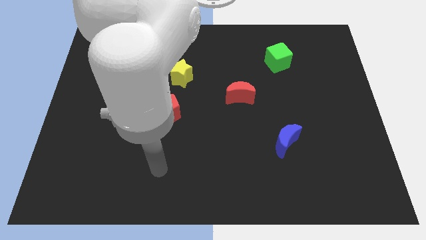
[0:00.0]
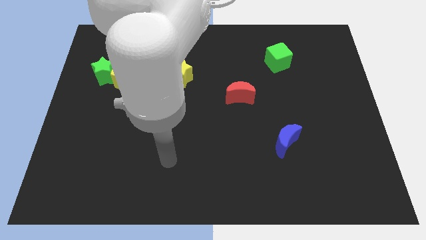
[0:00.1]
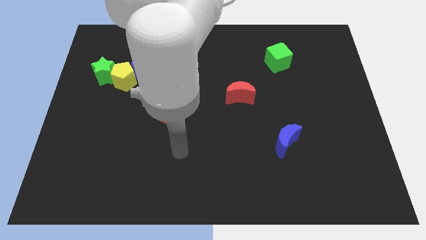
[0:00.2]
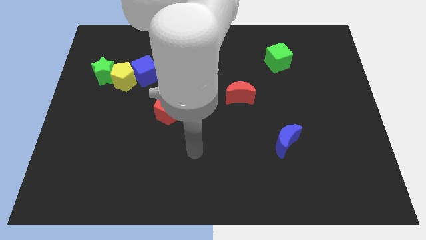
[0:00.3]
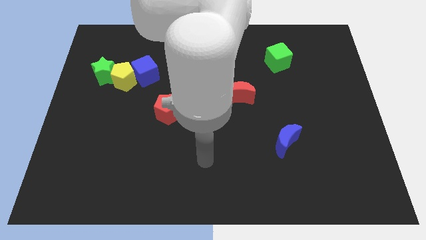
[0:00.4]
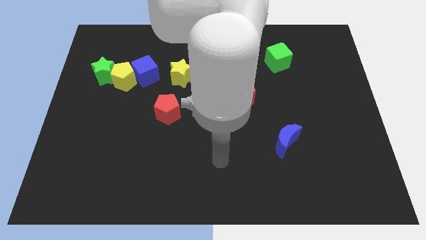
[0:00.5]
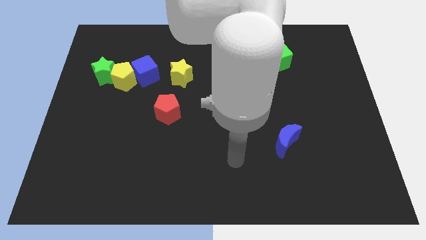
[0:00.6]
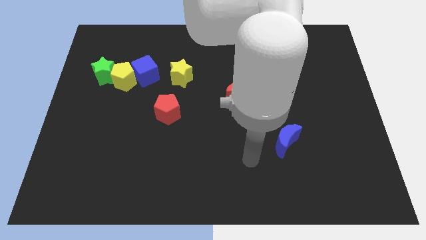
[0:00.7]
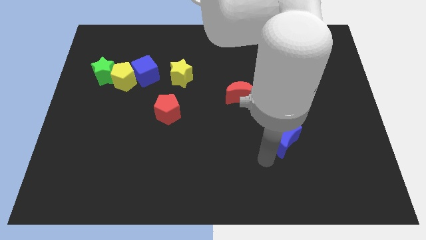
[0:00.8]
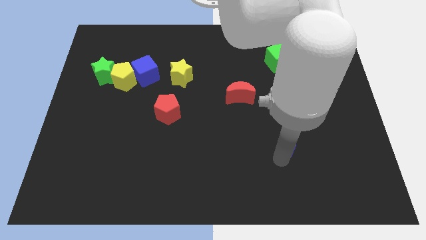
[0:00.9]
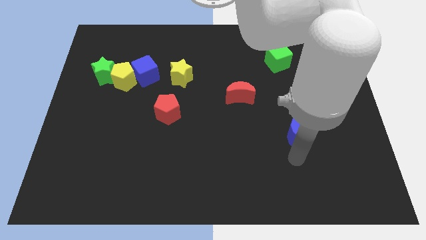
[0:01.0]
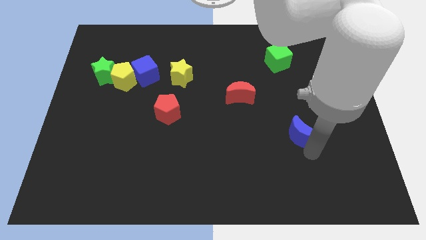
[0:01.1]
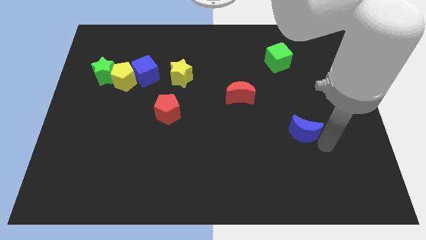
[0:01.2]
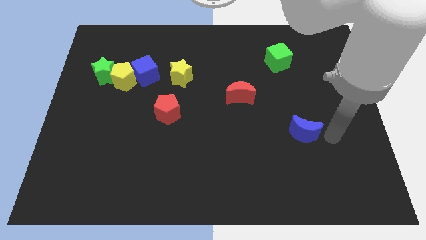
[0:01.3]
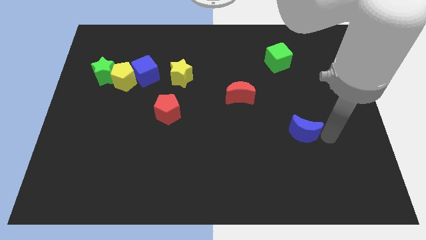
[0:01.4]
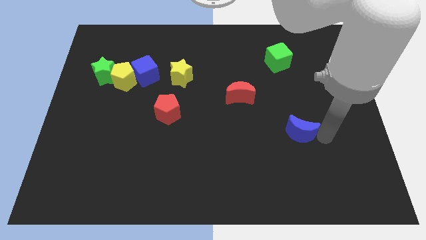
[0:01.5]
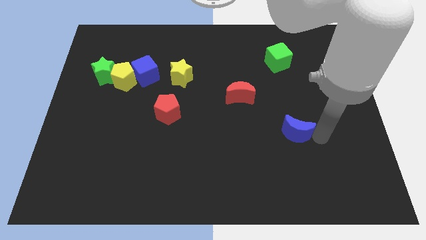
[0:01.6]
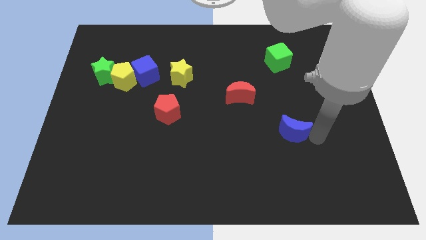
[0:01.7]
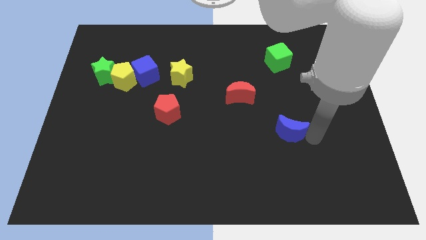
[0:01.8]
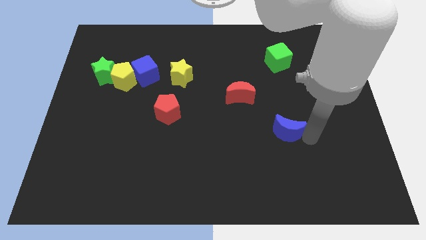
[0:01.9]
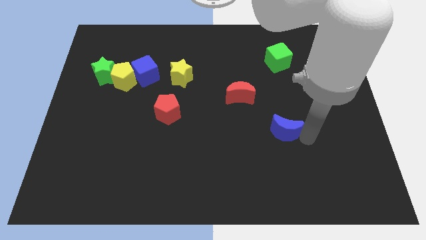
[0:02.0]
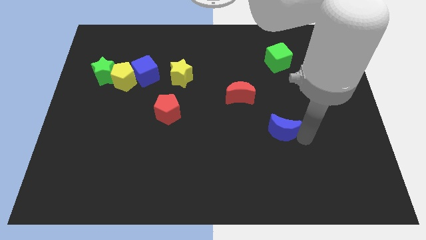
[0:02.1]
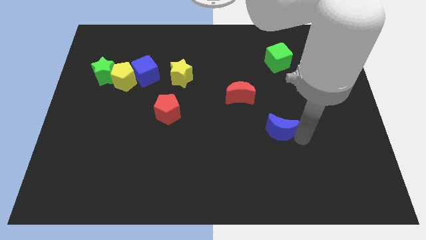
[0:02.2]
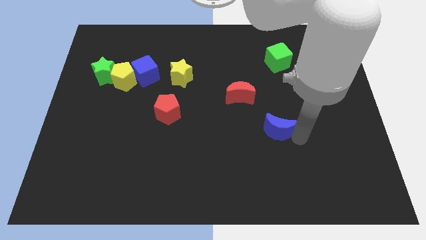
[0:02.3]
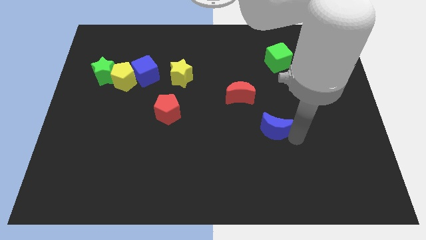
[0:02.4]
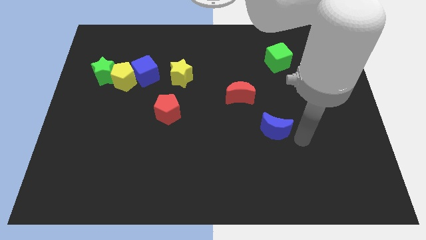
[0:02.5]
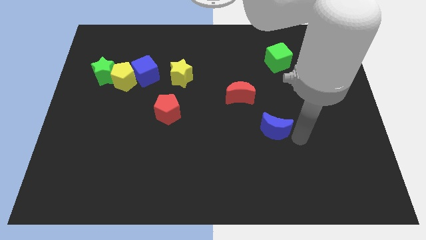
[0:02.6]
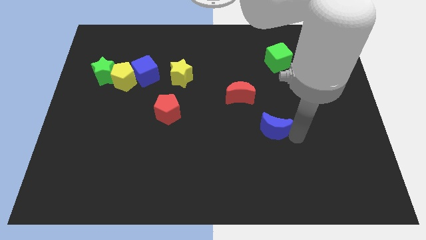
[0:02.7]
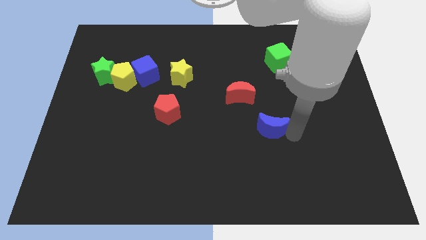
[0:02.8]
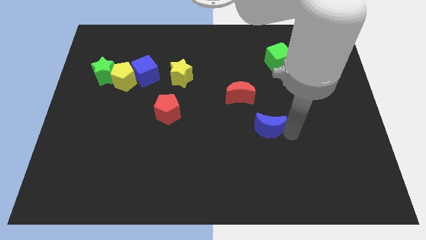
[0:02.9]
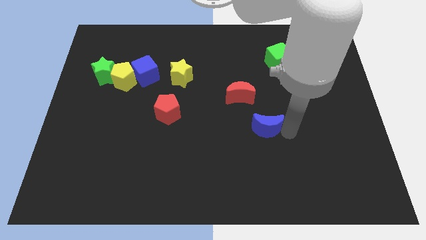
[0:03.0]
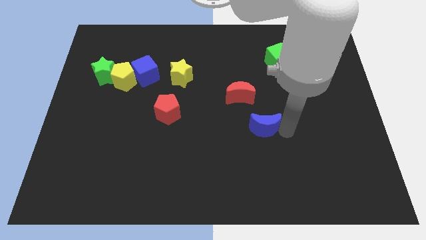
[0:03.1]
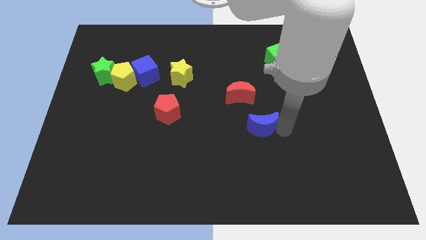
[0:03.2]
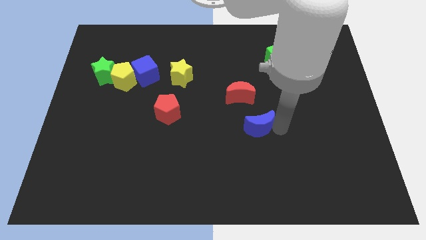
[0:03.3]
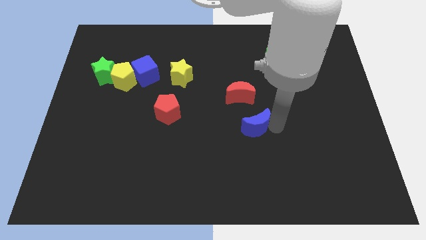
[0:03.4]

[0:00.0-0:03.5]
slide the blue moon upwards and to the left a little

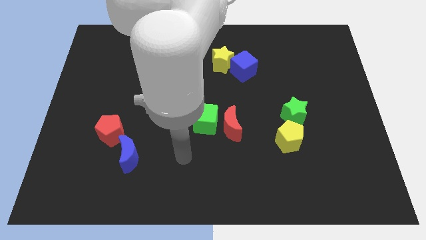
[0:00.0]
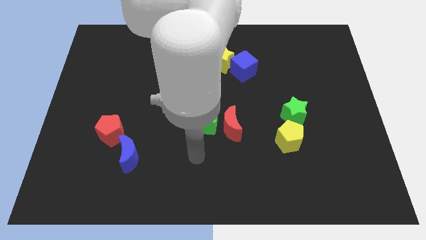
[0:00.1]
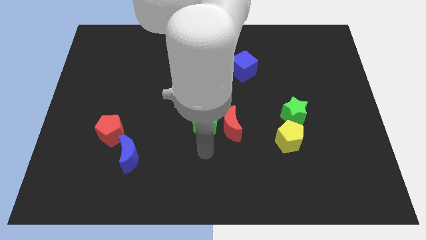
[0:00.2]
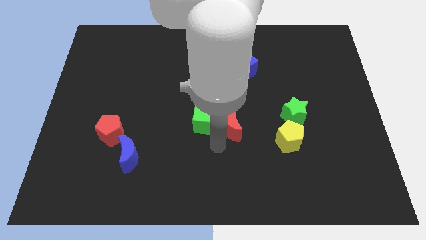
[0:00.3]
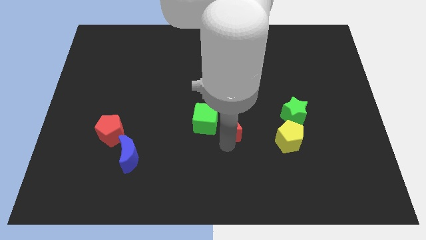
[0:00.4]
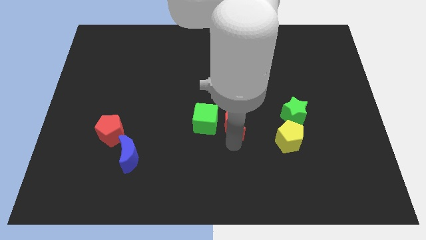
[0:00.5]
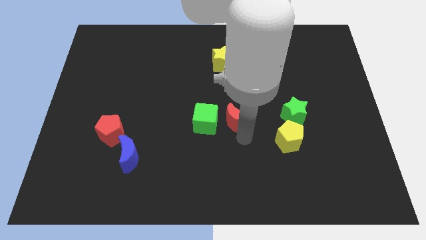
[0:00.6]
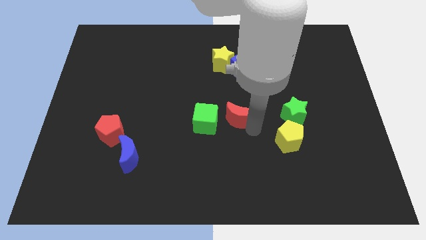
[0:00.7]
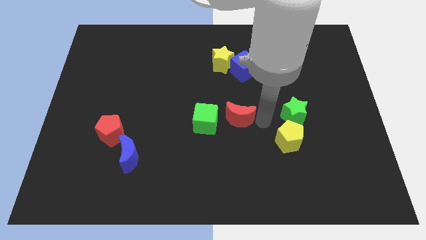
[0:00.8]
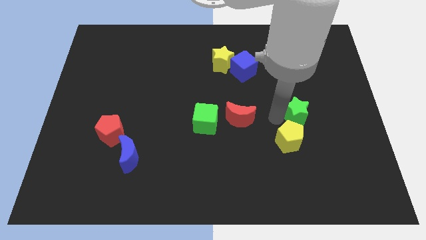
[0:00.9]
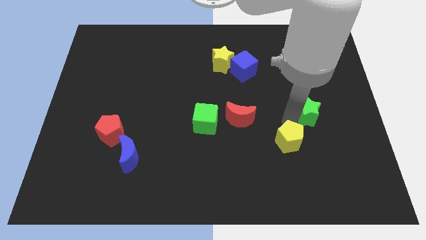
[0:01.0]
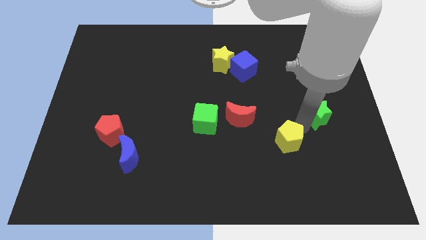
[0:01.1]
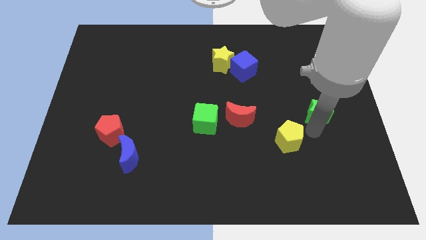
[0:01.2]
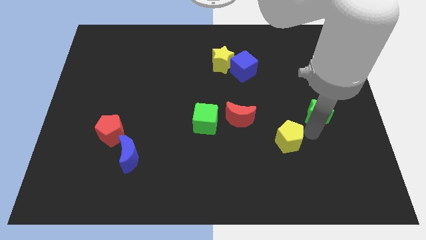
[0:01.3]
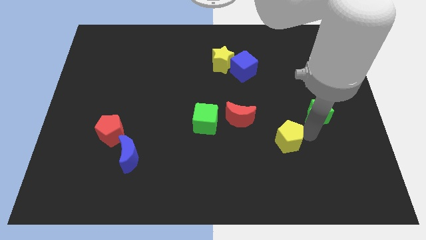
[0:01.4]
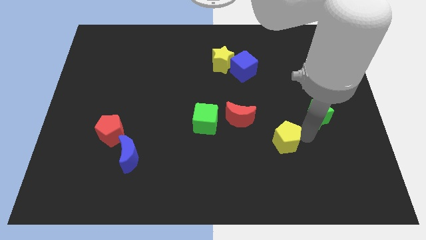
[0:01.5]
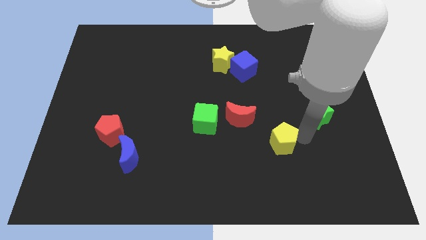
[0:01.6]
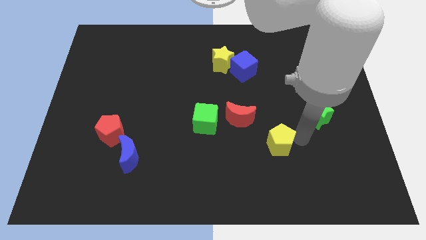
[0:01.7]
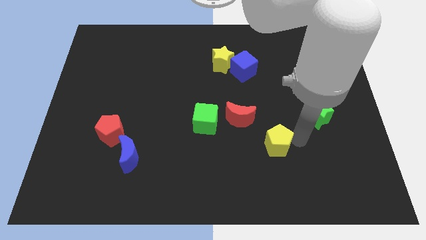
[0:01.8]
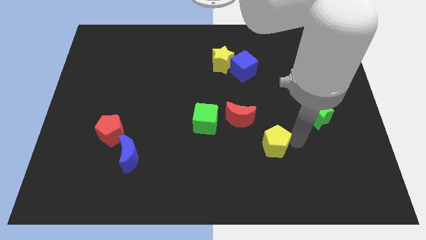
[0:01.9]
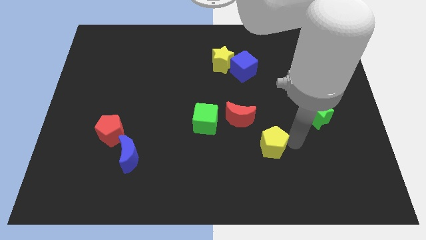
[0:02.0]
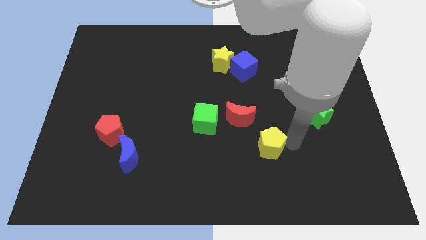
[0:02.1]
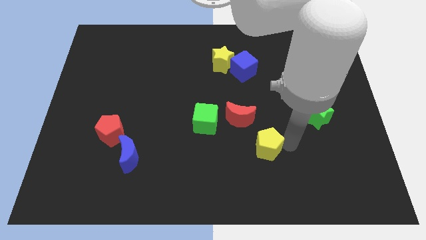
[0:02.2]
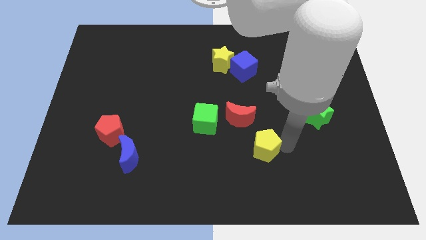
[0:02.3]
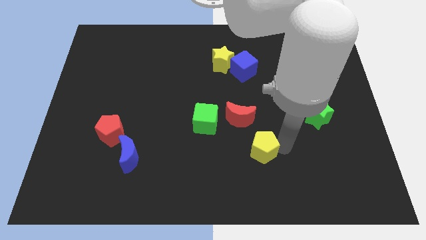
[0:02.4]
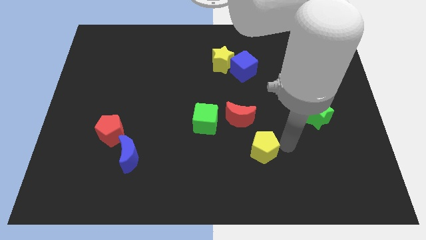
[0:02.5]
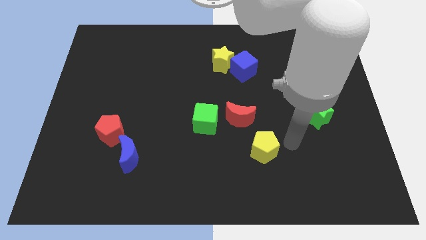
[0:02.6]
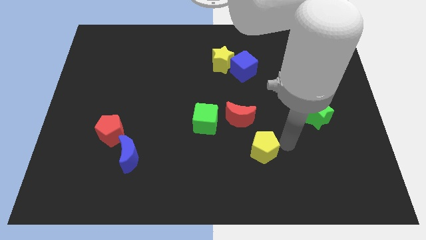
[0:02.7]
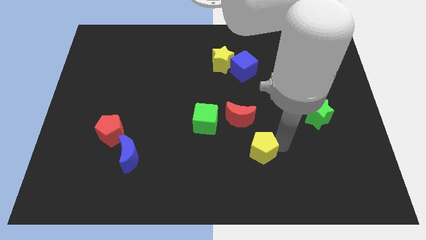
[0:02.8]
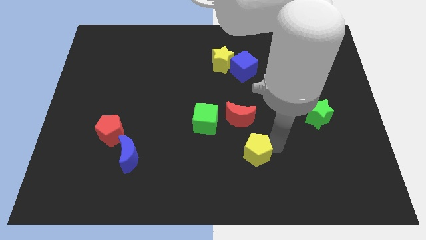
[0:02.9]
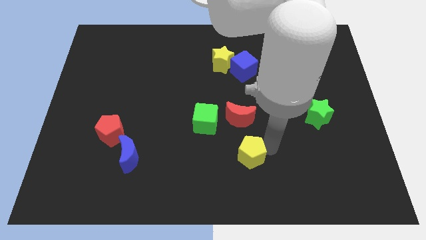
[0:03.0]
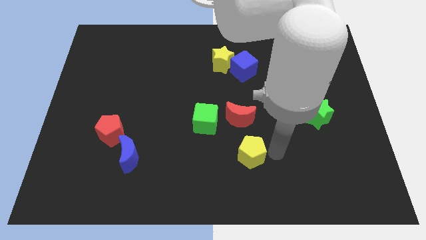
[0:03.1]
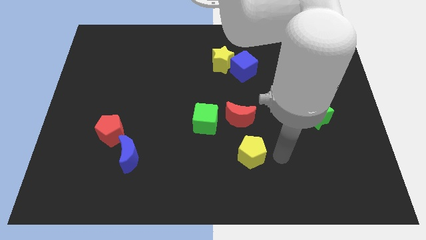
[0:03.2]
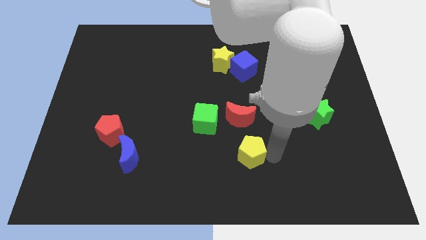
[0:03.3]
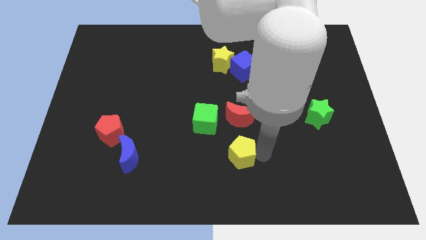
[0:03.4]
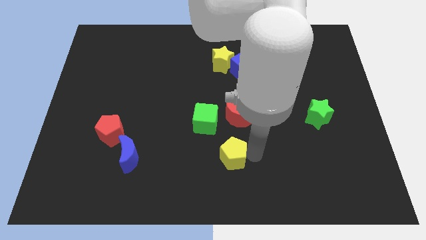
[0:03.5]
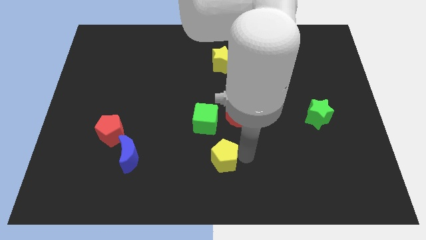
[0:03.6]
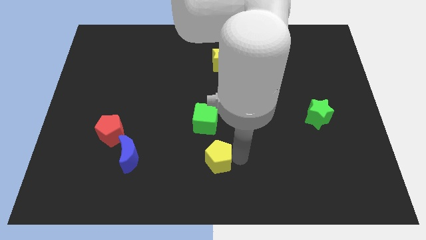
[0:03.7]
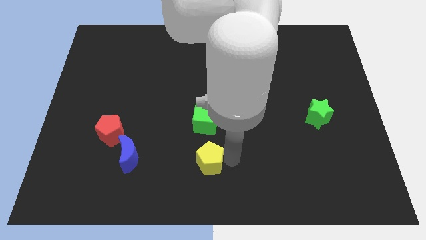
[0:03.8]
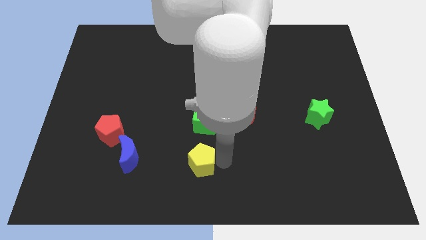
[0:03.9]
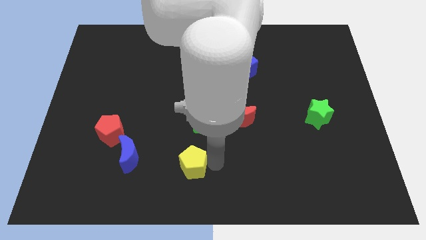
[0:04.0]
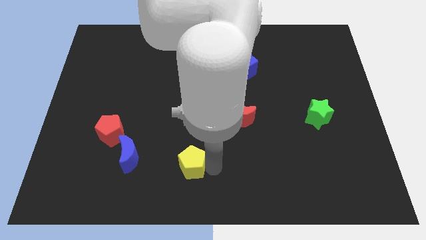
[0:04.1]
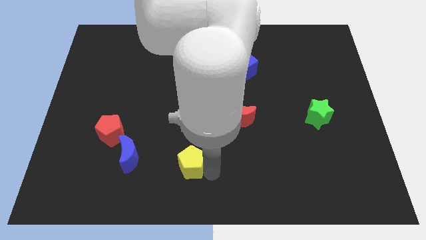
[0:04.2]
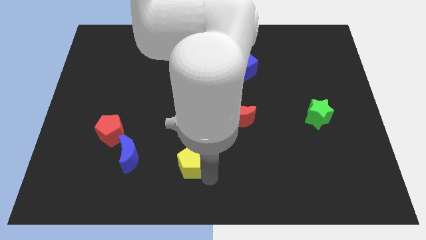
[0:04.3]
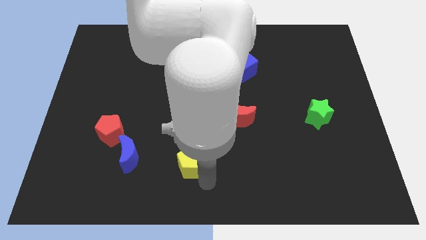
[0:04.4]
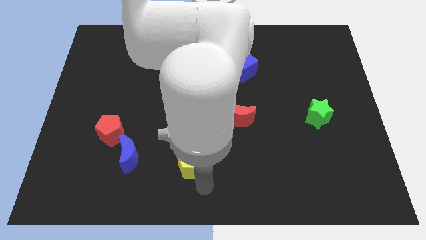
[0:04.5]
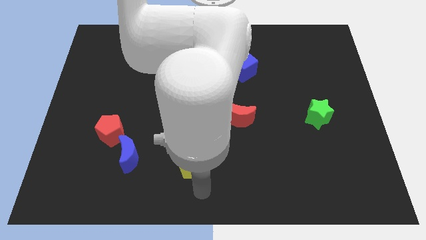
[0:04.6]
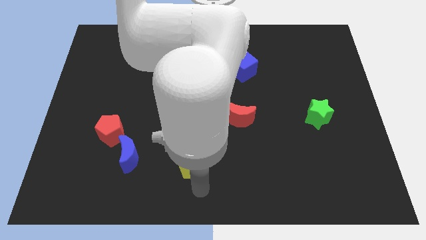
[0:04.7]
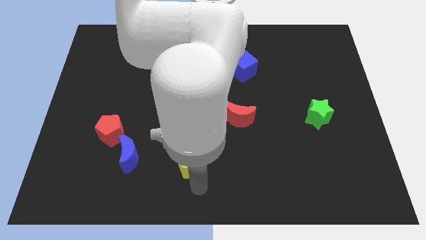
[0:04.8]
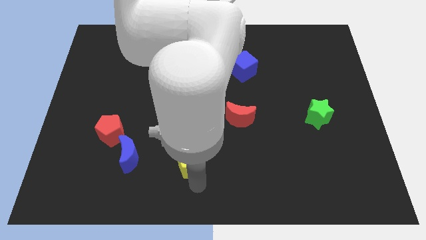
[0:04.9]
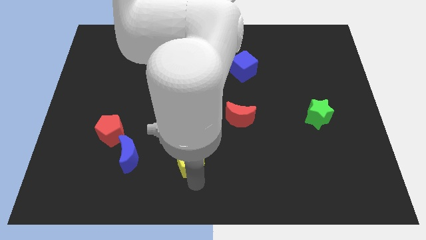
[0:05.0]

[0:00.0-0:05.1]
slide the yellow pentagon to the left
